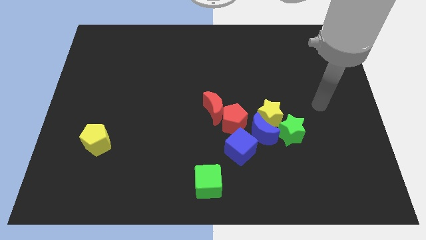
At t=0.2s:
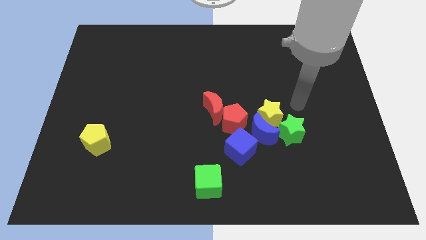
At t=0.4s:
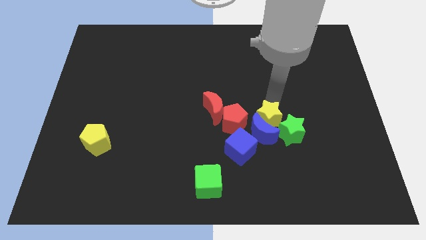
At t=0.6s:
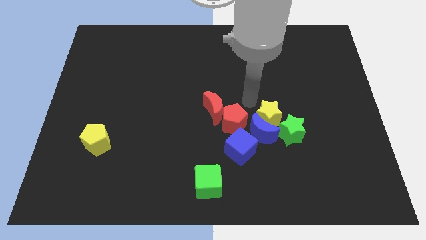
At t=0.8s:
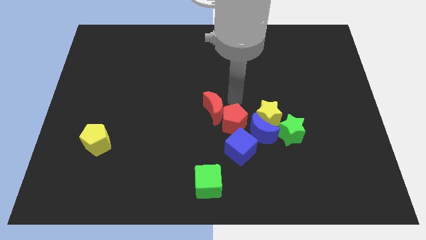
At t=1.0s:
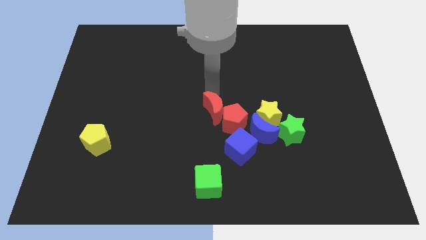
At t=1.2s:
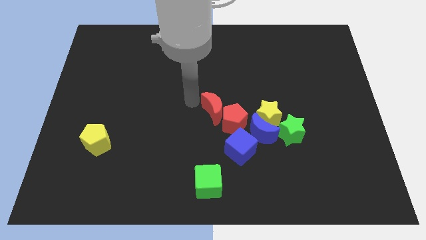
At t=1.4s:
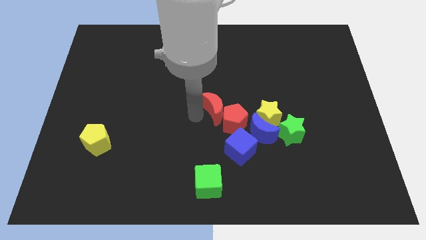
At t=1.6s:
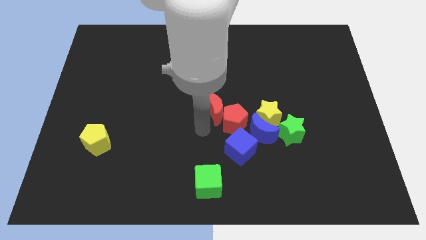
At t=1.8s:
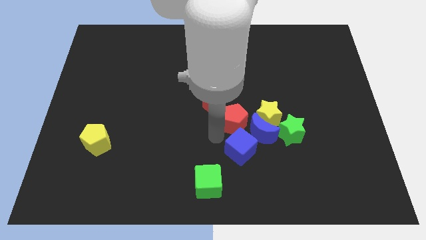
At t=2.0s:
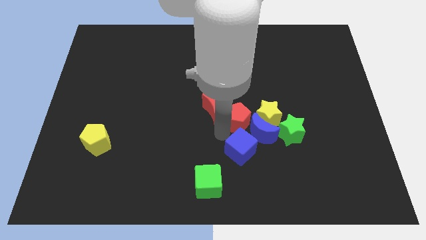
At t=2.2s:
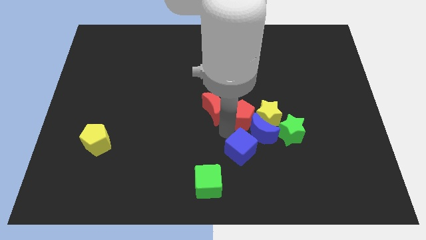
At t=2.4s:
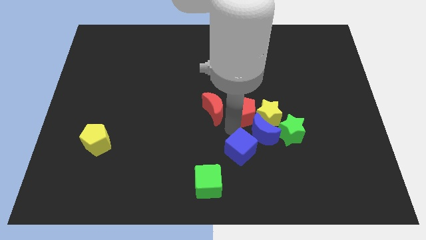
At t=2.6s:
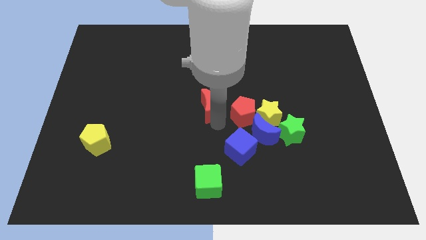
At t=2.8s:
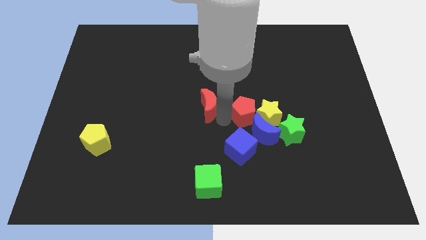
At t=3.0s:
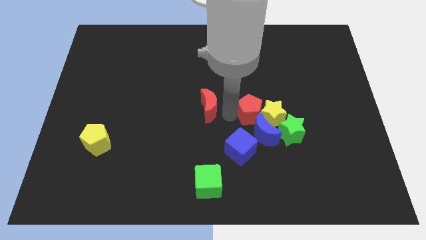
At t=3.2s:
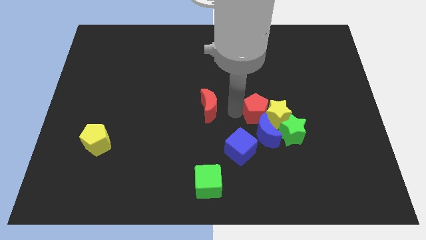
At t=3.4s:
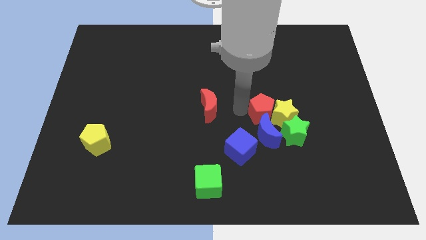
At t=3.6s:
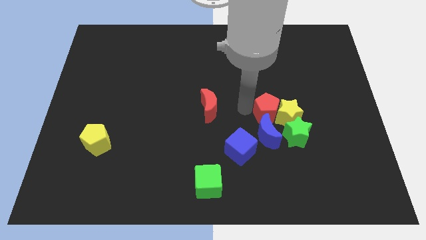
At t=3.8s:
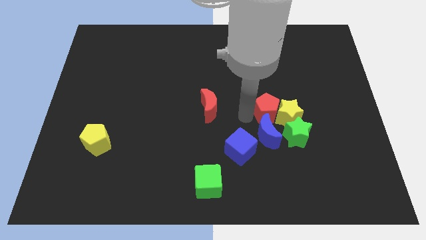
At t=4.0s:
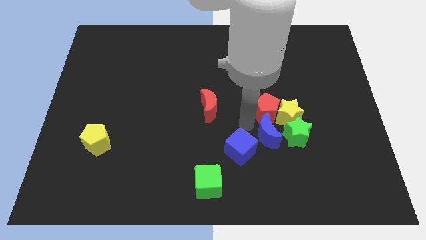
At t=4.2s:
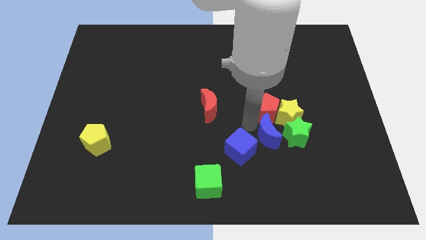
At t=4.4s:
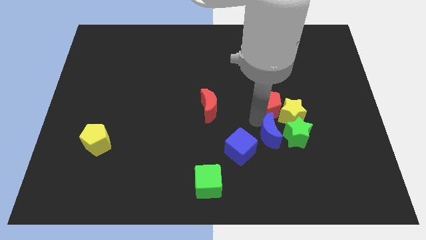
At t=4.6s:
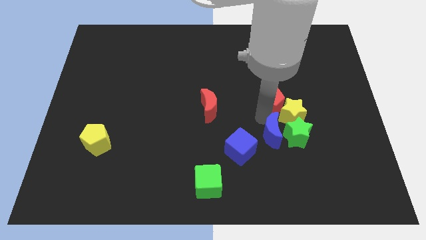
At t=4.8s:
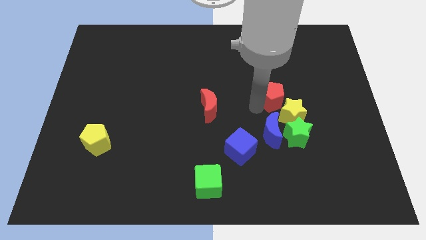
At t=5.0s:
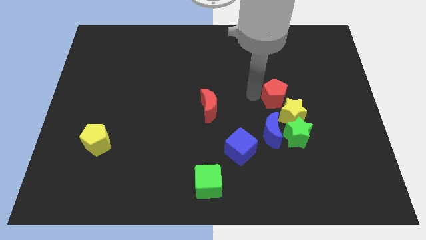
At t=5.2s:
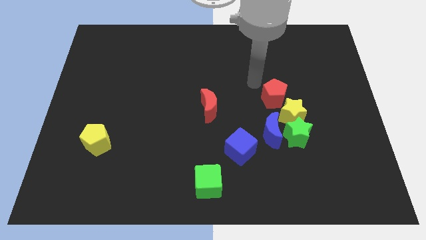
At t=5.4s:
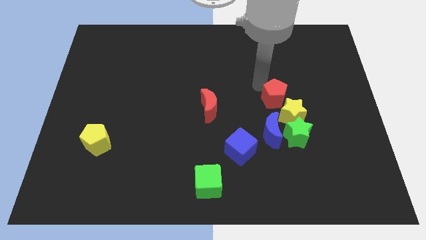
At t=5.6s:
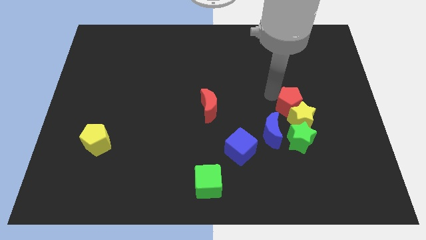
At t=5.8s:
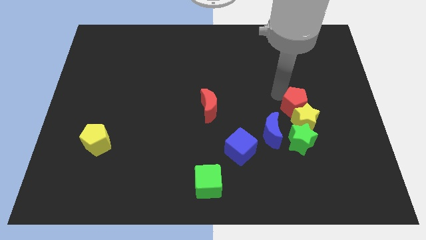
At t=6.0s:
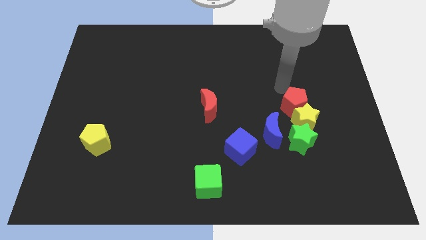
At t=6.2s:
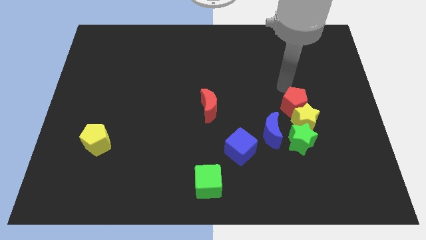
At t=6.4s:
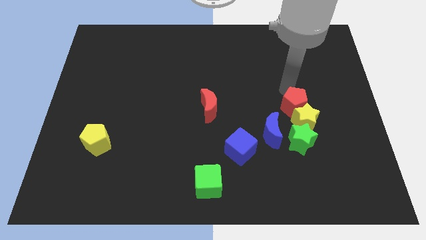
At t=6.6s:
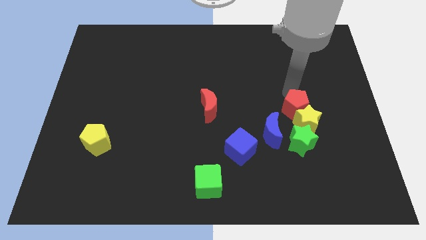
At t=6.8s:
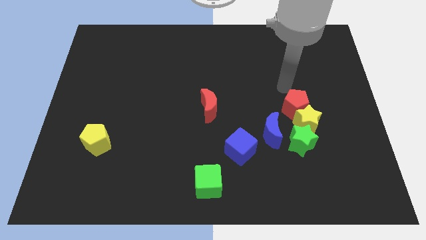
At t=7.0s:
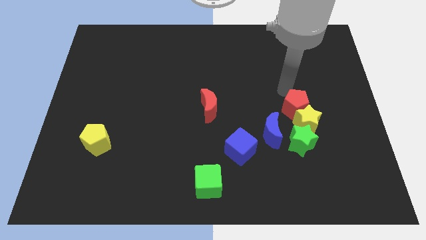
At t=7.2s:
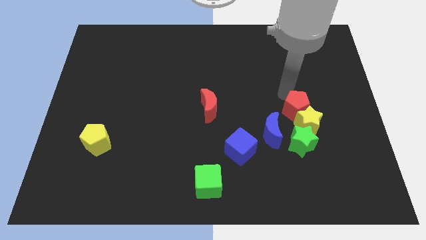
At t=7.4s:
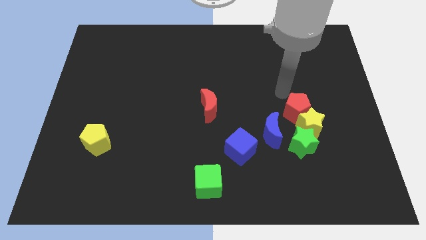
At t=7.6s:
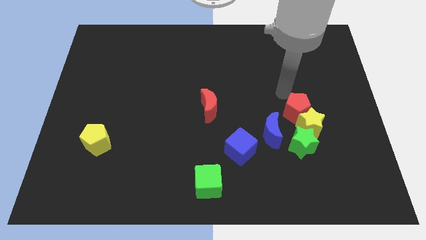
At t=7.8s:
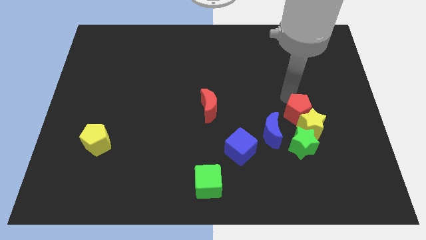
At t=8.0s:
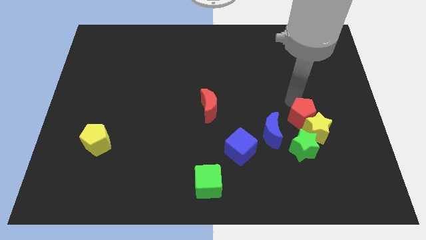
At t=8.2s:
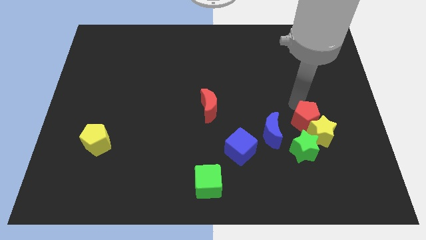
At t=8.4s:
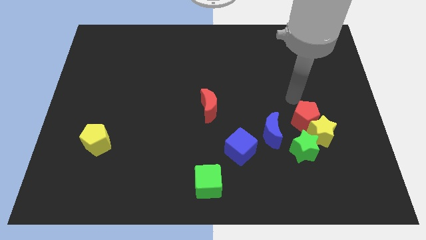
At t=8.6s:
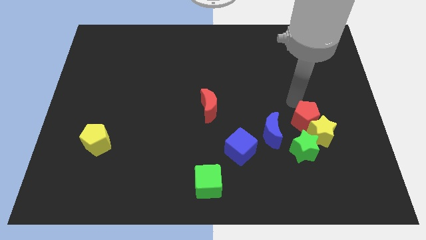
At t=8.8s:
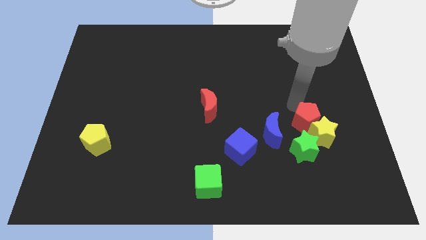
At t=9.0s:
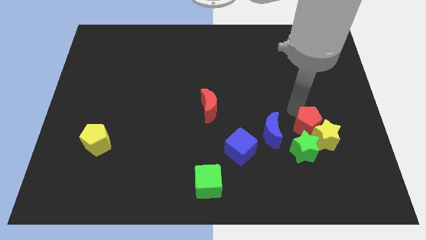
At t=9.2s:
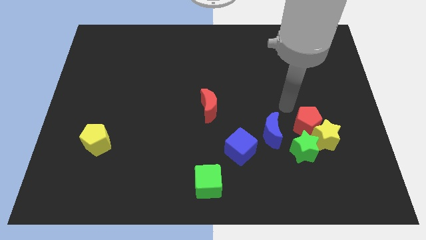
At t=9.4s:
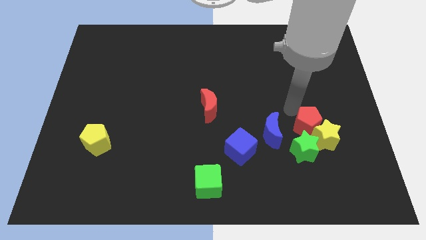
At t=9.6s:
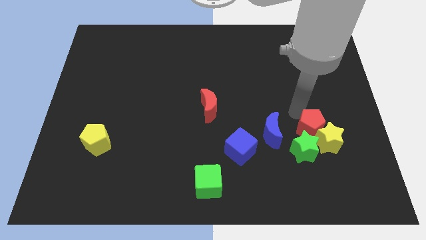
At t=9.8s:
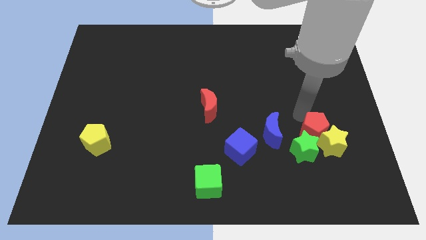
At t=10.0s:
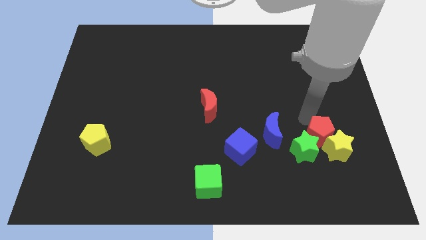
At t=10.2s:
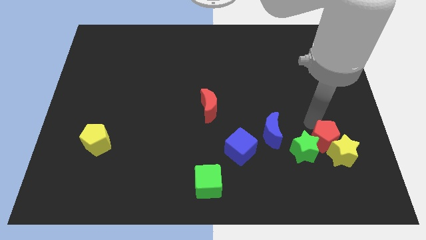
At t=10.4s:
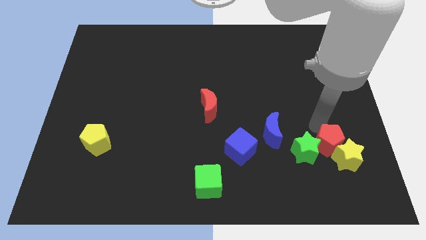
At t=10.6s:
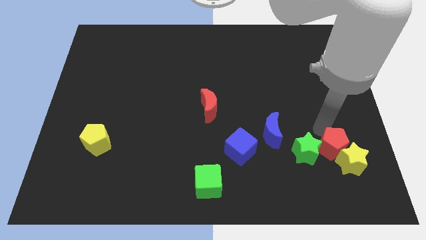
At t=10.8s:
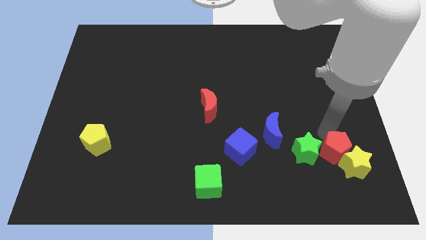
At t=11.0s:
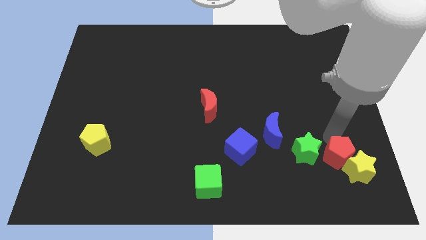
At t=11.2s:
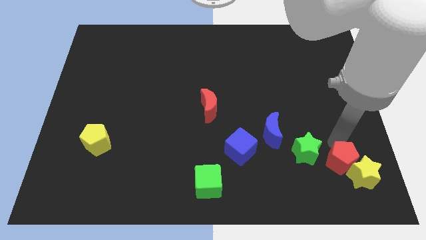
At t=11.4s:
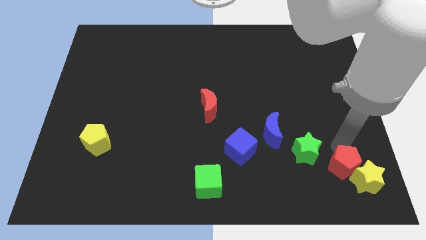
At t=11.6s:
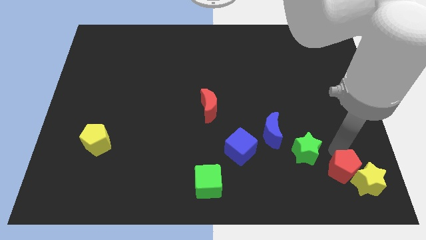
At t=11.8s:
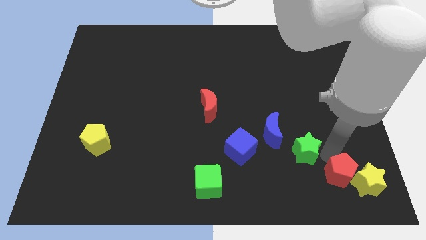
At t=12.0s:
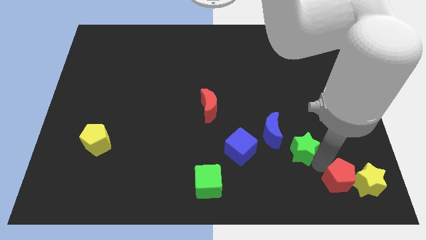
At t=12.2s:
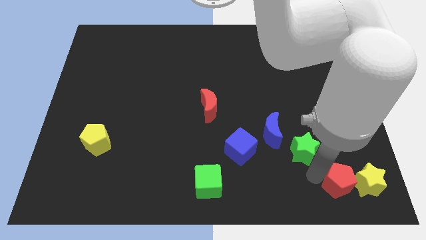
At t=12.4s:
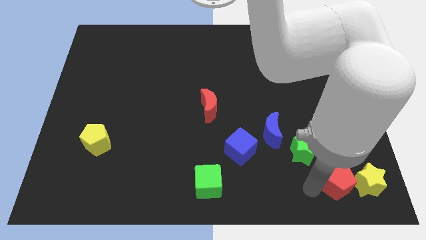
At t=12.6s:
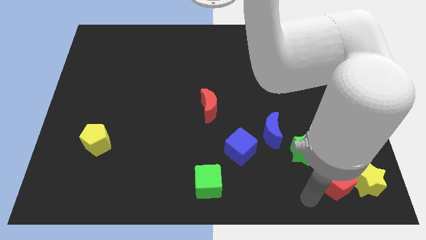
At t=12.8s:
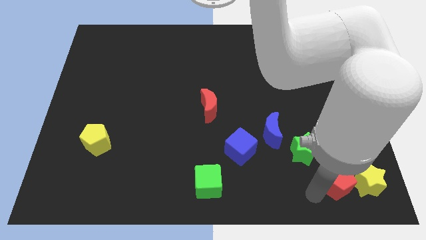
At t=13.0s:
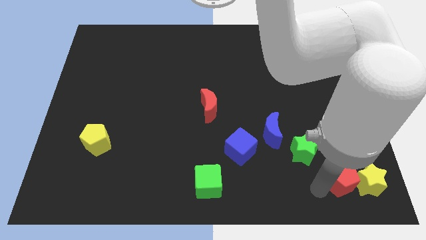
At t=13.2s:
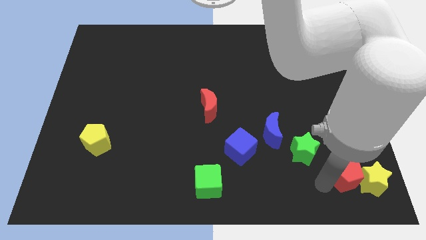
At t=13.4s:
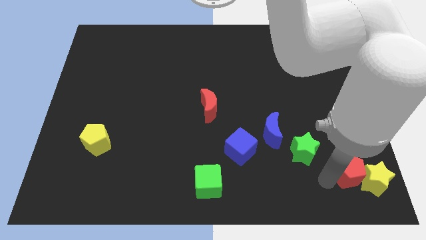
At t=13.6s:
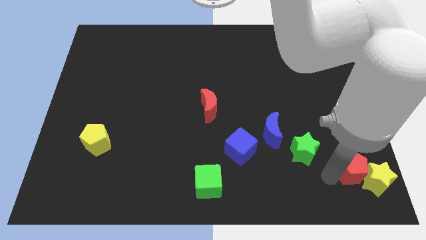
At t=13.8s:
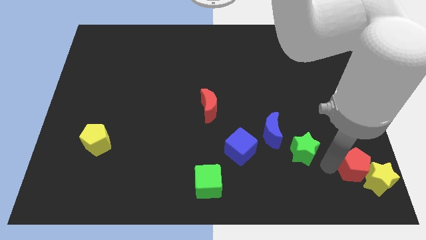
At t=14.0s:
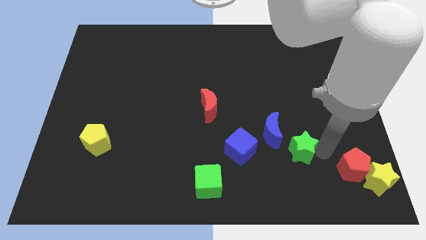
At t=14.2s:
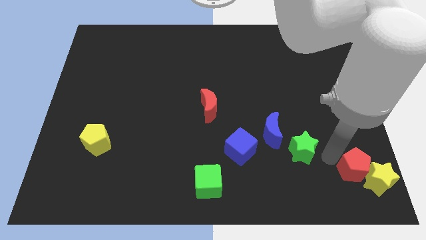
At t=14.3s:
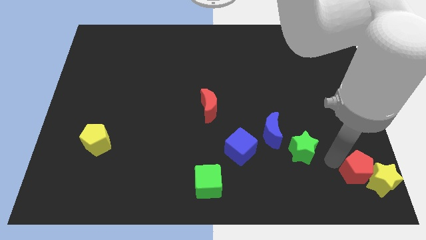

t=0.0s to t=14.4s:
put the red pentagon to the bottom right of the board
